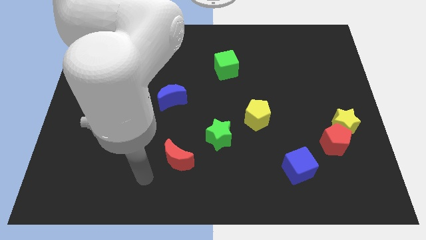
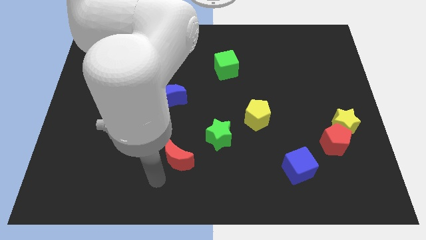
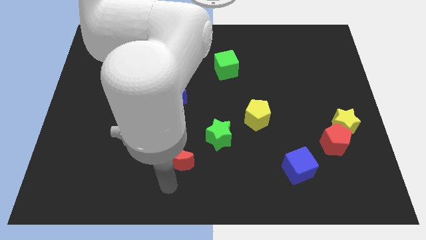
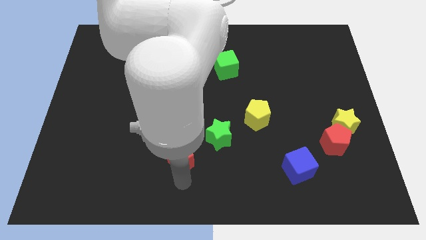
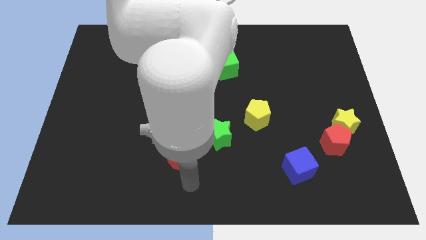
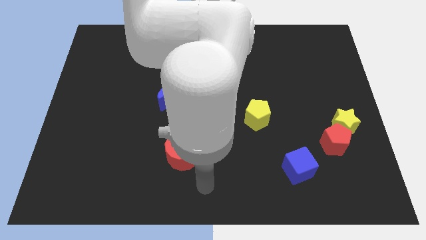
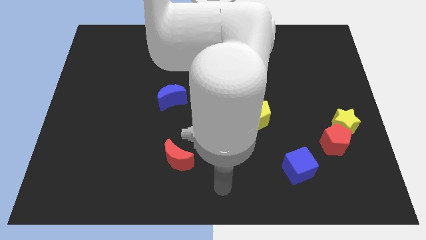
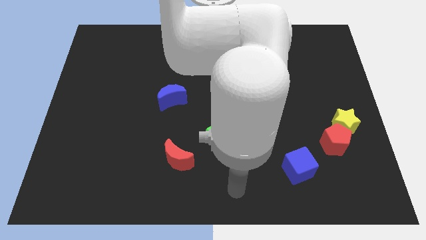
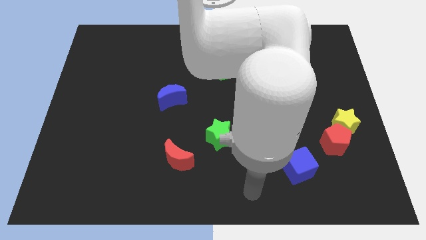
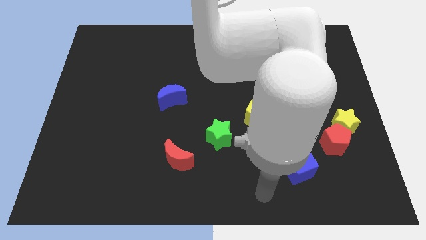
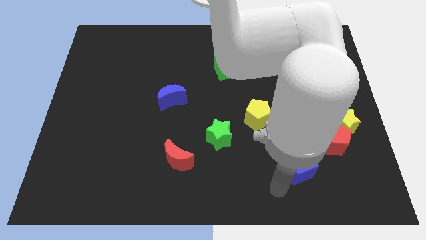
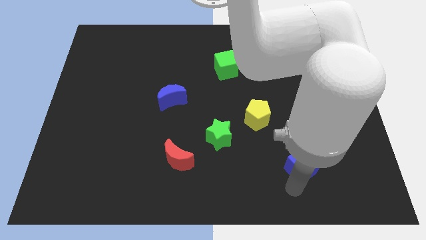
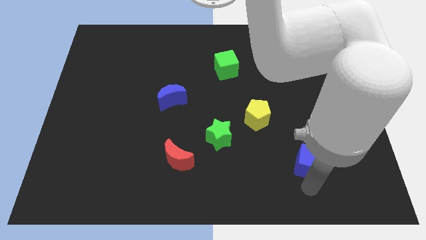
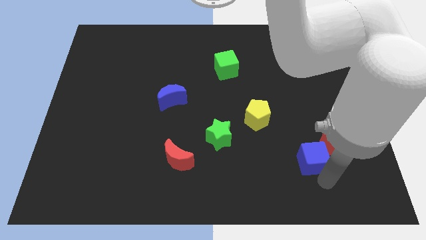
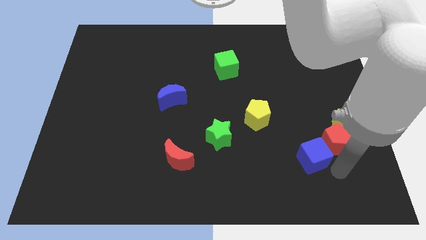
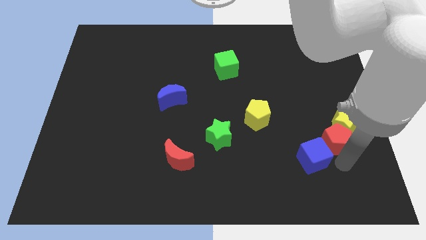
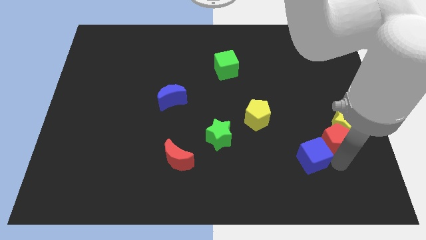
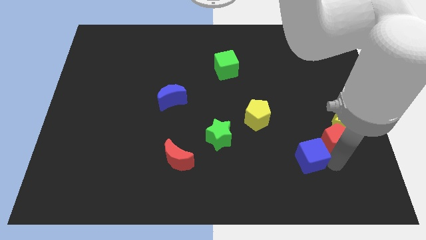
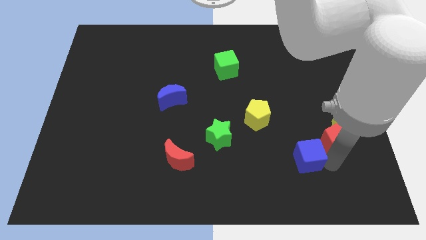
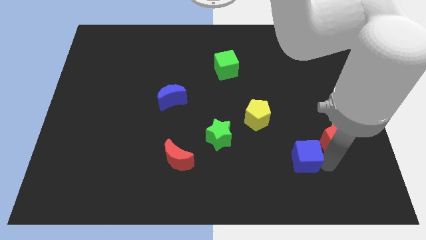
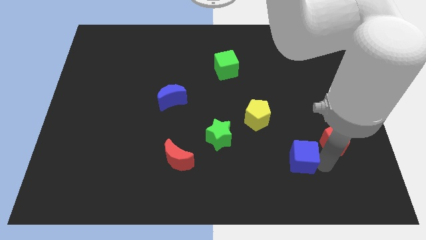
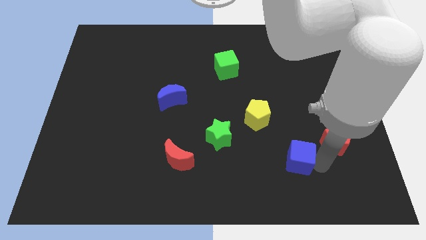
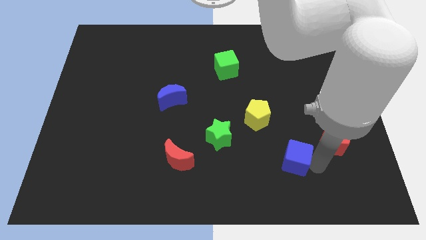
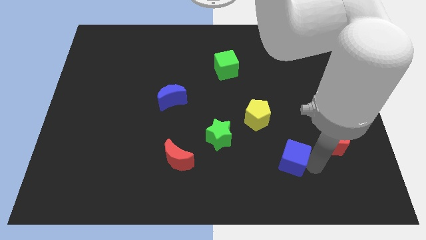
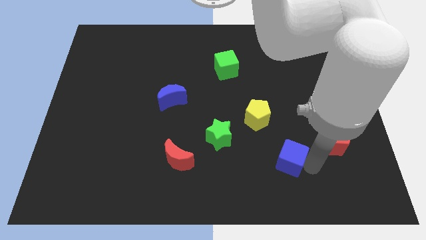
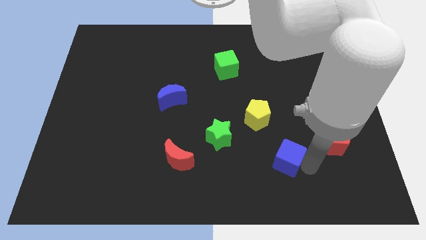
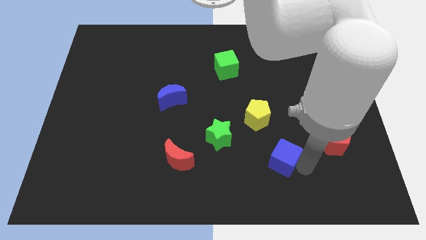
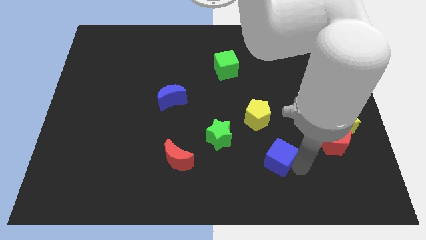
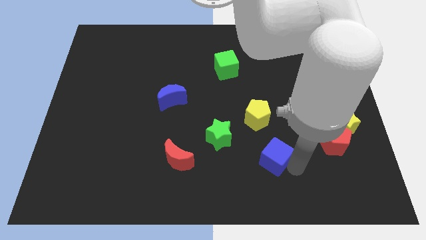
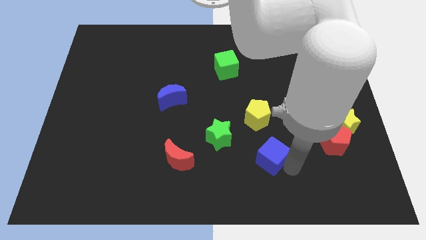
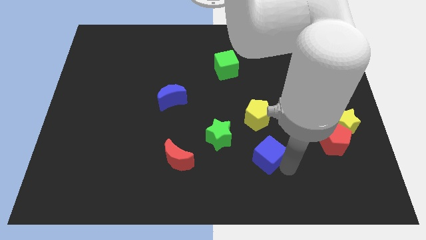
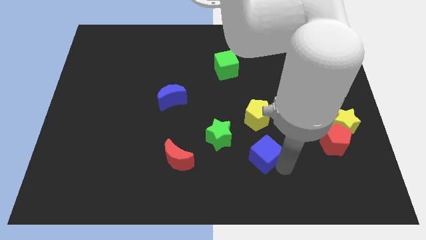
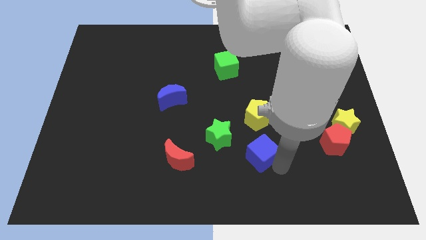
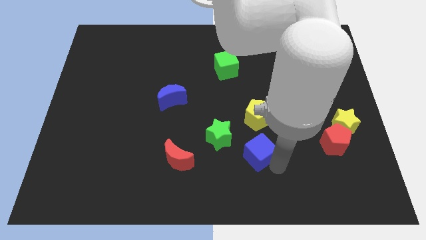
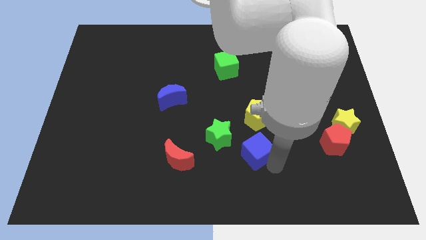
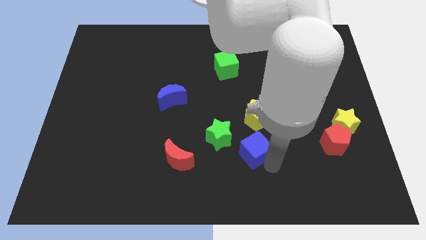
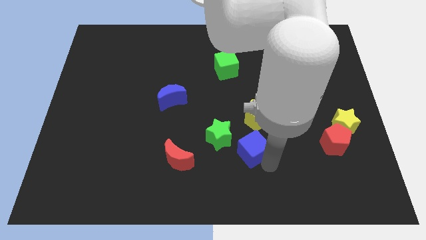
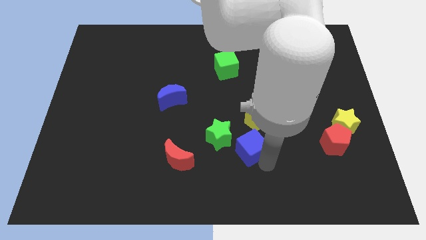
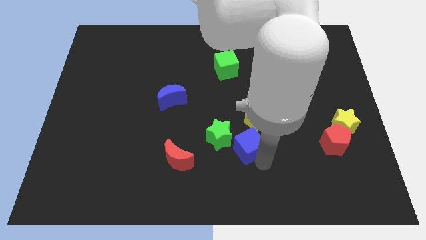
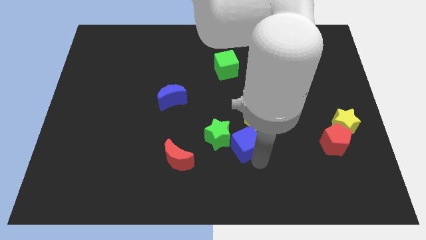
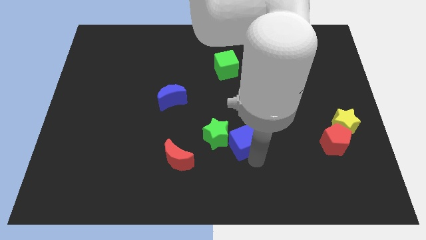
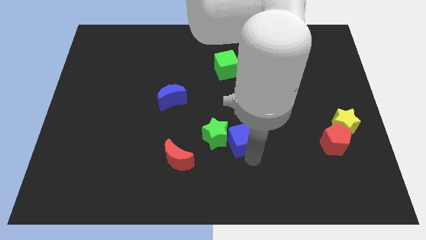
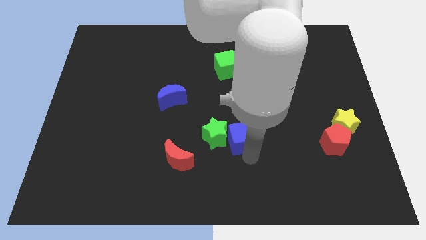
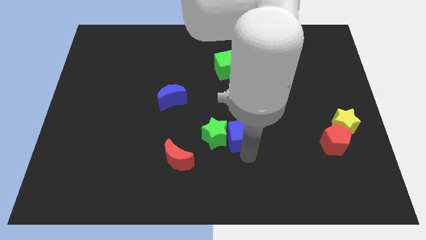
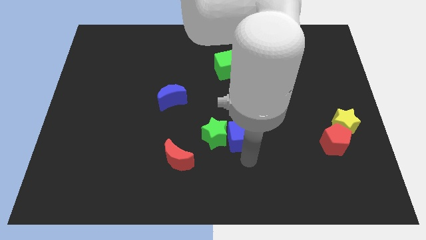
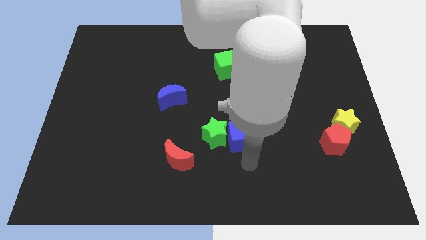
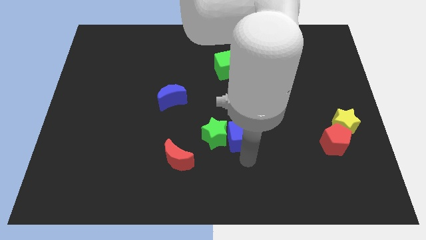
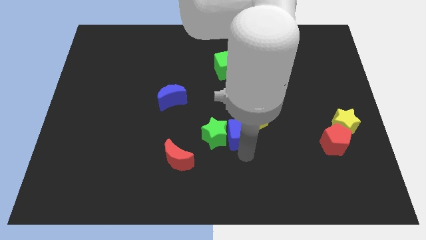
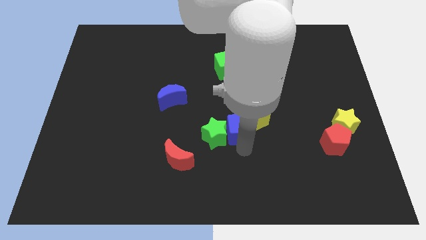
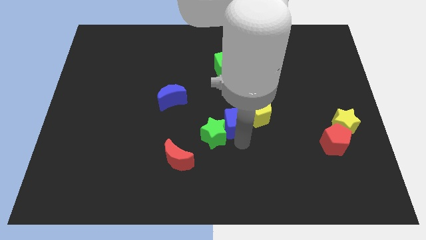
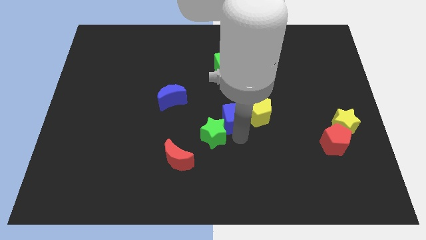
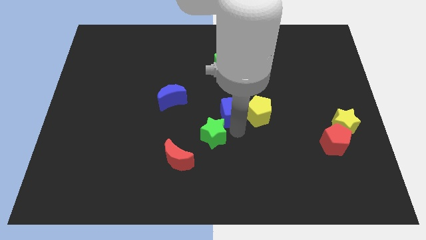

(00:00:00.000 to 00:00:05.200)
move the blue cube to the top left side of the yellow pentagon
